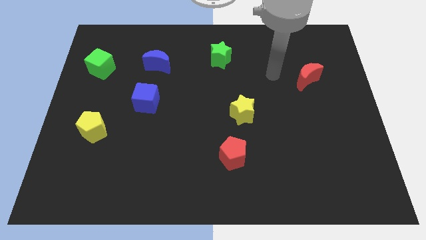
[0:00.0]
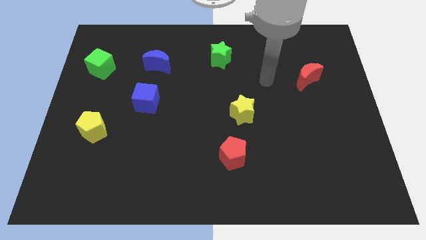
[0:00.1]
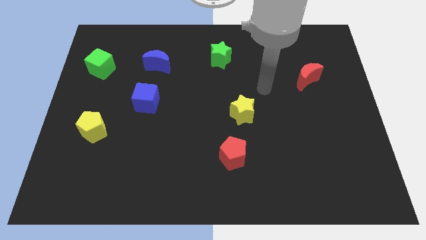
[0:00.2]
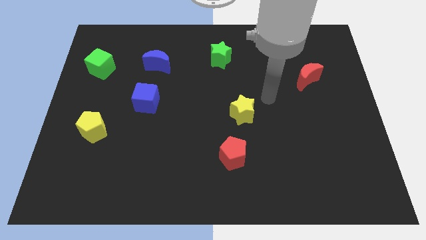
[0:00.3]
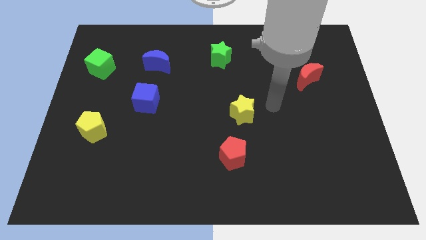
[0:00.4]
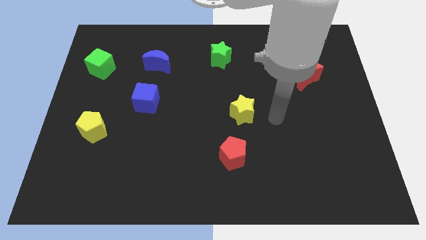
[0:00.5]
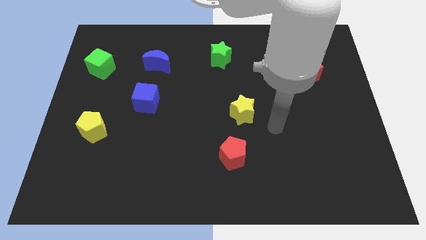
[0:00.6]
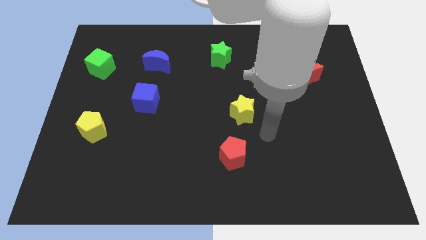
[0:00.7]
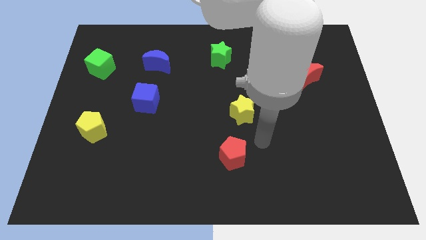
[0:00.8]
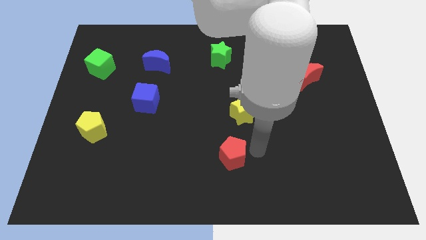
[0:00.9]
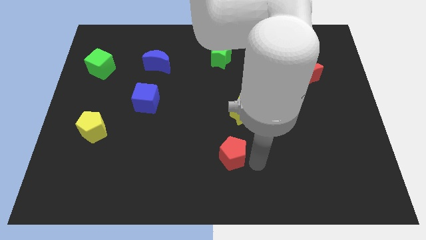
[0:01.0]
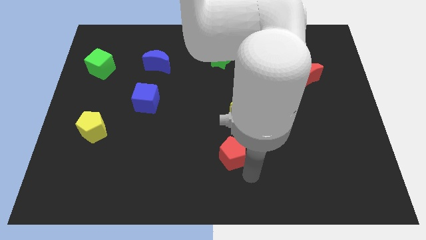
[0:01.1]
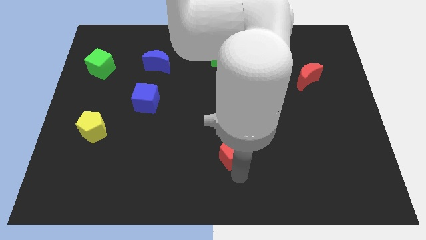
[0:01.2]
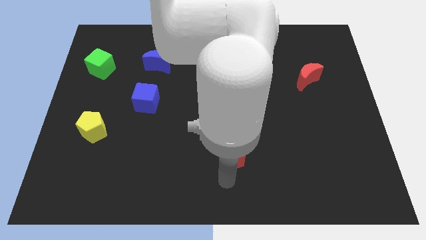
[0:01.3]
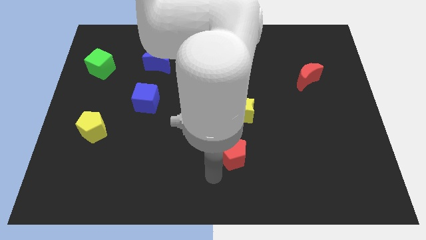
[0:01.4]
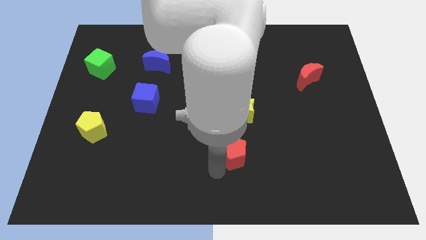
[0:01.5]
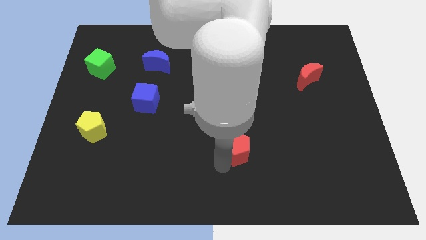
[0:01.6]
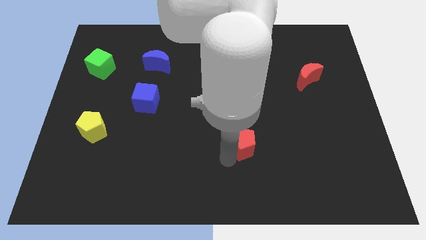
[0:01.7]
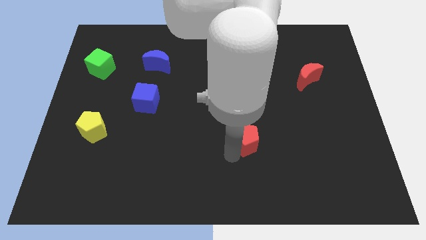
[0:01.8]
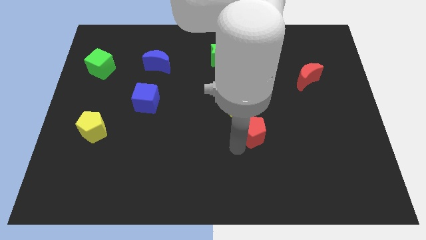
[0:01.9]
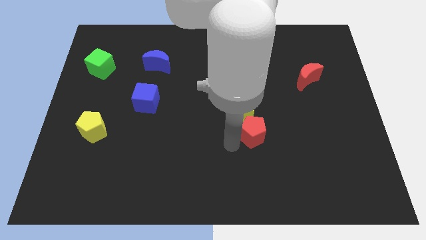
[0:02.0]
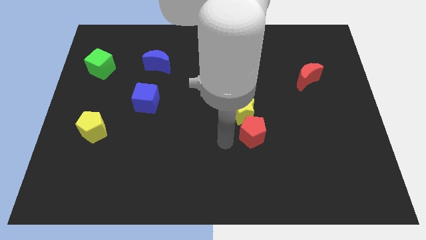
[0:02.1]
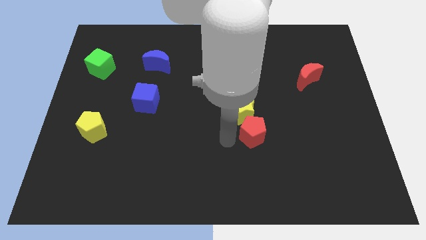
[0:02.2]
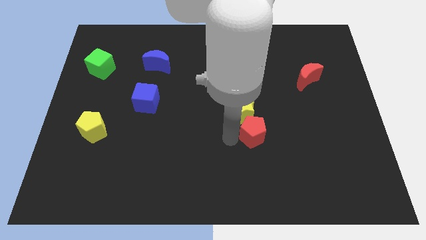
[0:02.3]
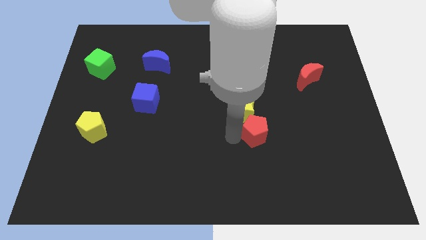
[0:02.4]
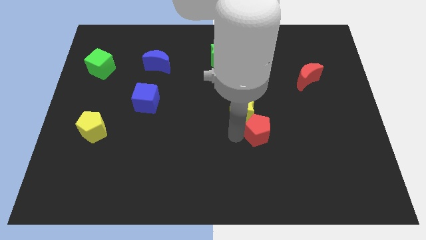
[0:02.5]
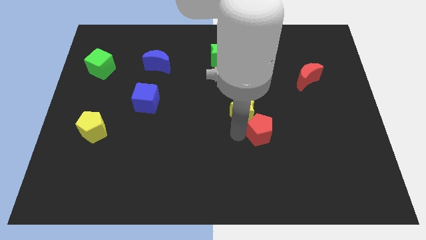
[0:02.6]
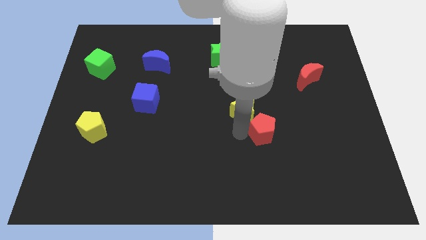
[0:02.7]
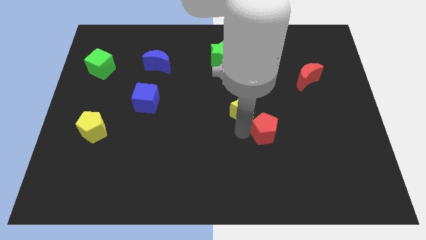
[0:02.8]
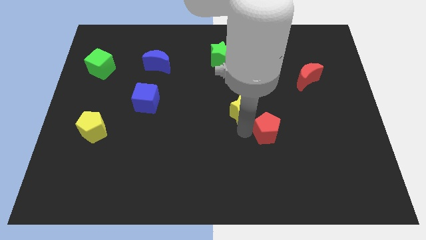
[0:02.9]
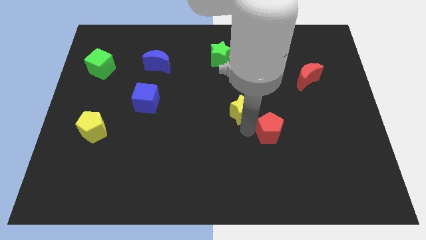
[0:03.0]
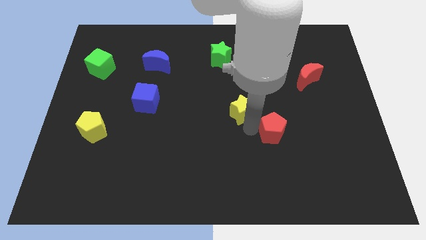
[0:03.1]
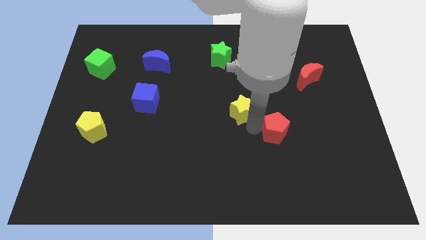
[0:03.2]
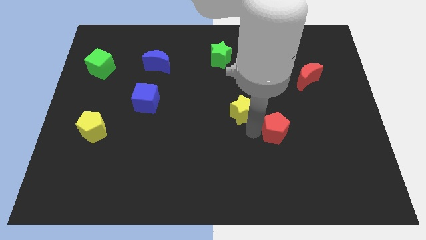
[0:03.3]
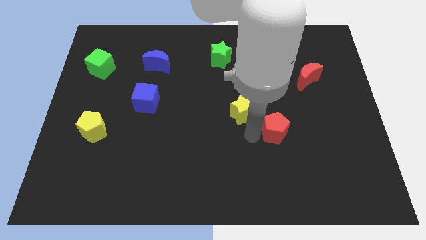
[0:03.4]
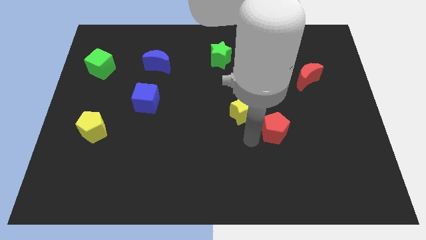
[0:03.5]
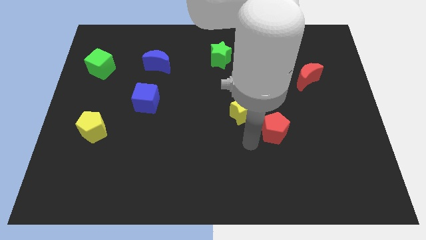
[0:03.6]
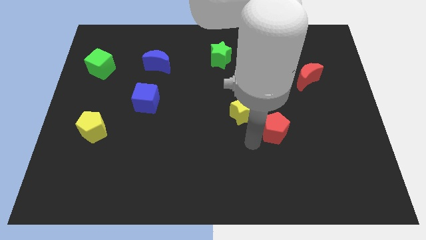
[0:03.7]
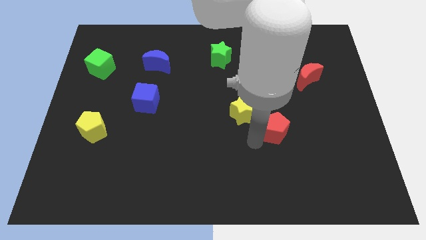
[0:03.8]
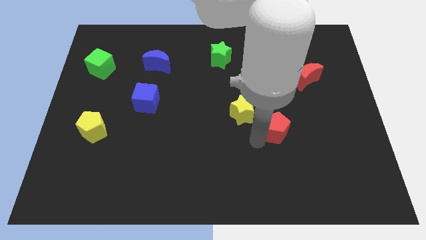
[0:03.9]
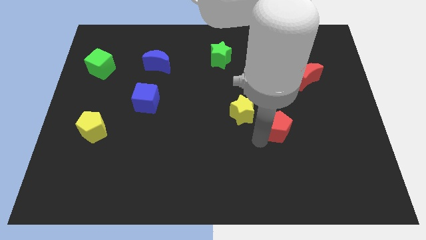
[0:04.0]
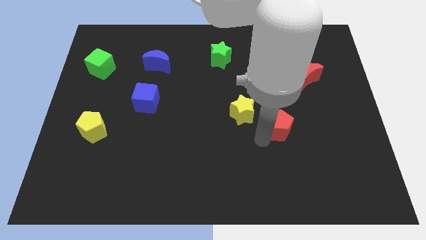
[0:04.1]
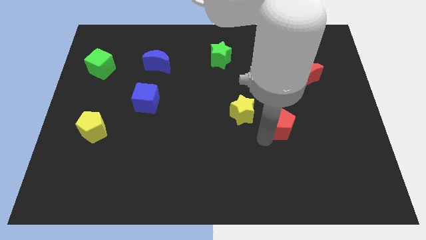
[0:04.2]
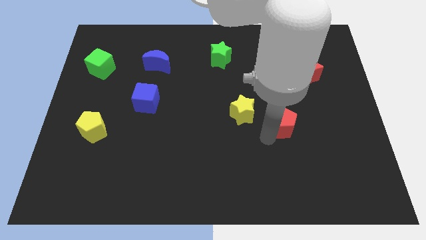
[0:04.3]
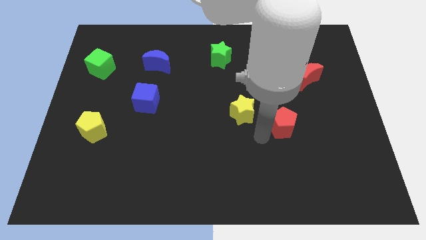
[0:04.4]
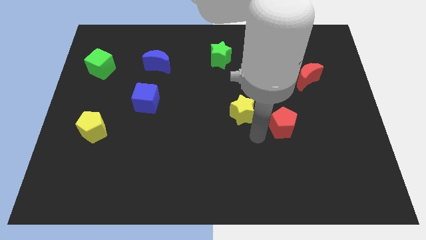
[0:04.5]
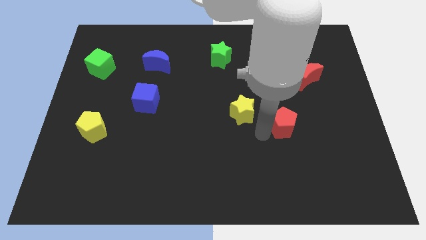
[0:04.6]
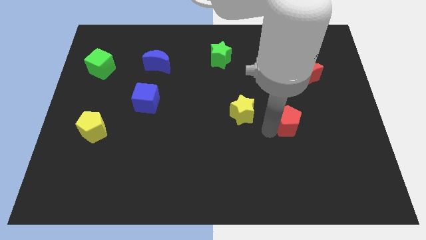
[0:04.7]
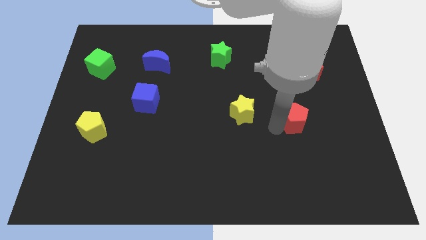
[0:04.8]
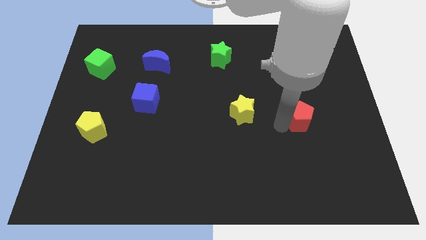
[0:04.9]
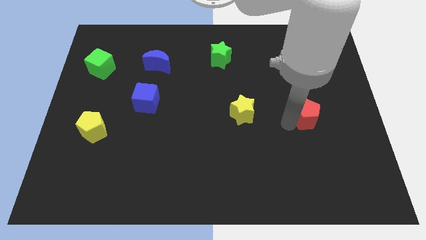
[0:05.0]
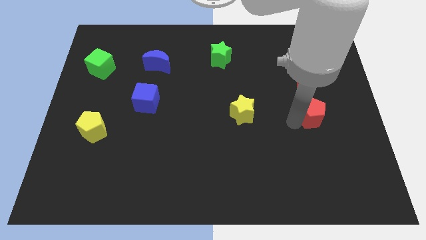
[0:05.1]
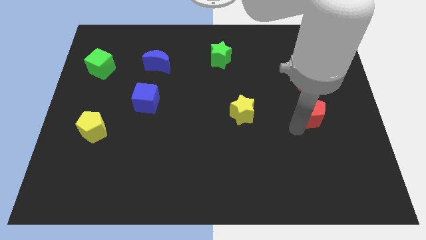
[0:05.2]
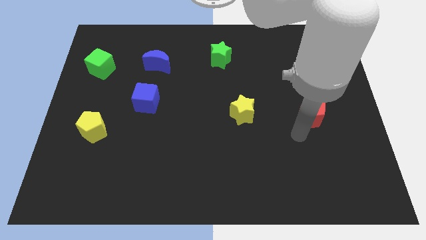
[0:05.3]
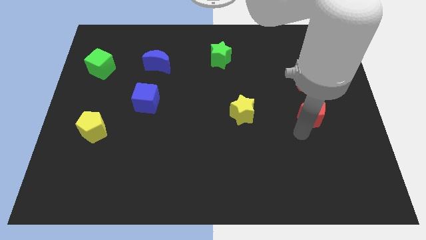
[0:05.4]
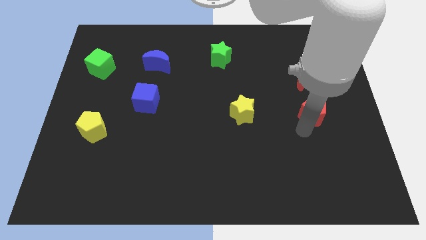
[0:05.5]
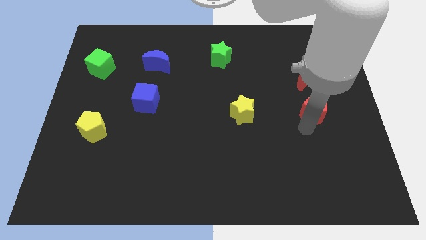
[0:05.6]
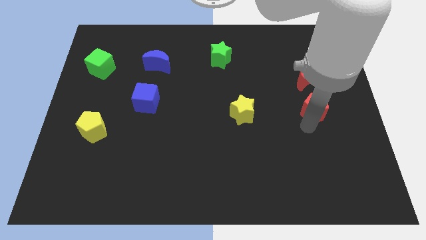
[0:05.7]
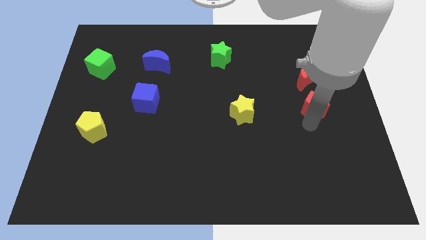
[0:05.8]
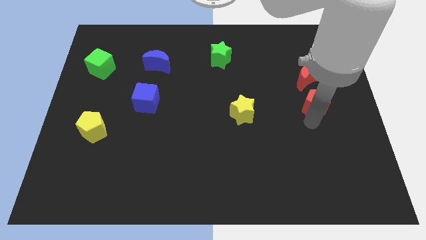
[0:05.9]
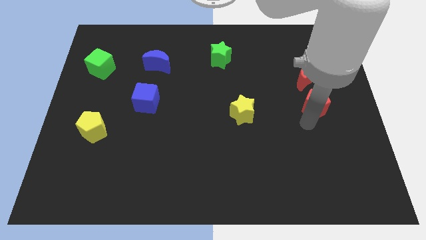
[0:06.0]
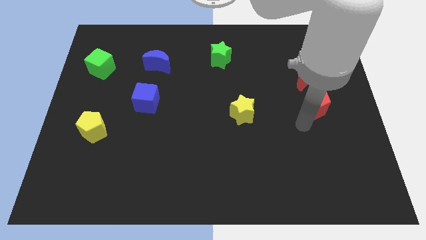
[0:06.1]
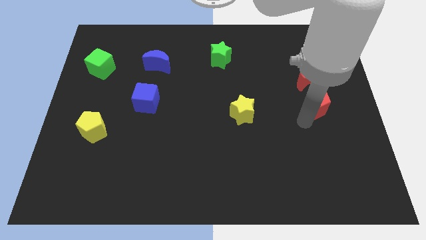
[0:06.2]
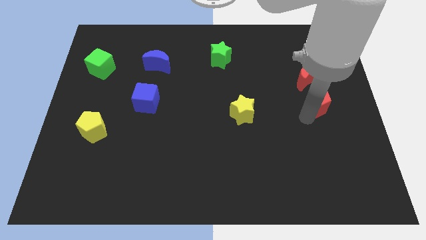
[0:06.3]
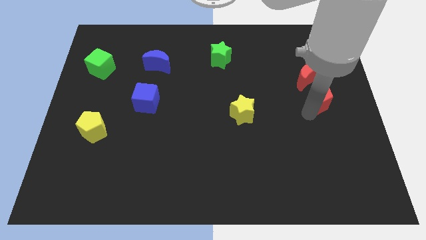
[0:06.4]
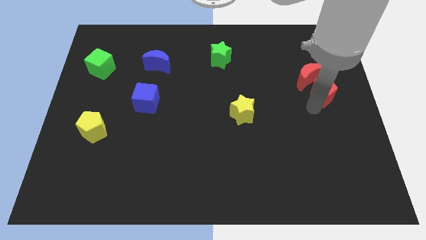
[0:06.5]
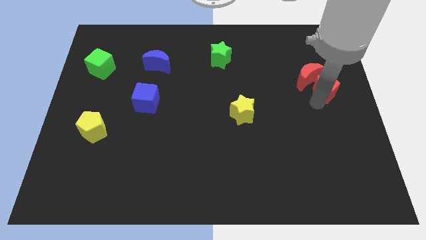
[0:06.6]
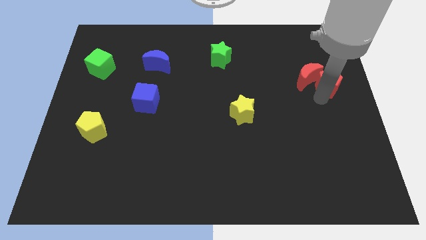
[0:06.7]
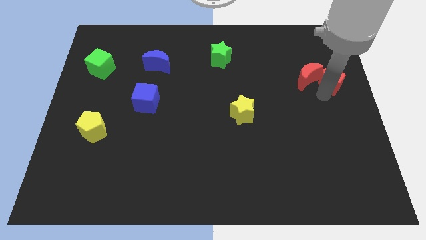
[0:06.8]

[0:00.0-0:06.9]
slide the red pentagon to the top right side of the red moon

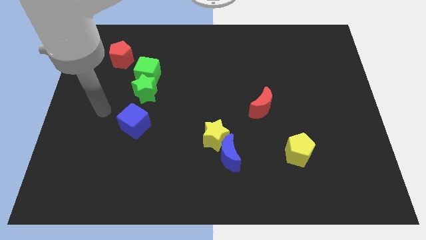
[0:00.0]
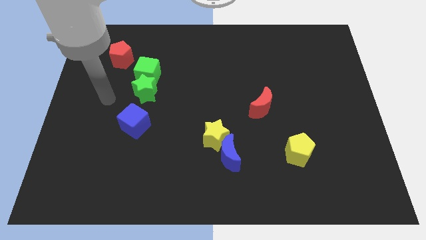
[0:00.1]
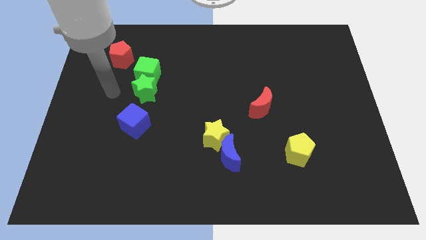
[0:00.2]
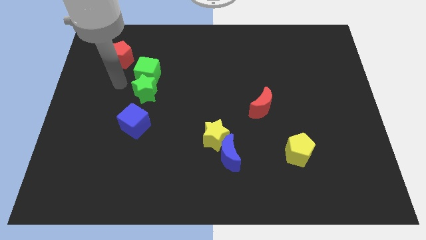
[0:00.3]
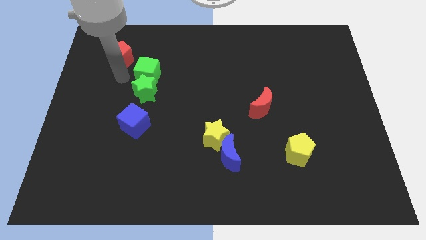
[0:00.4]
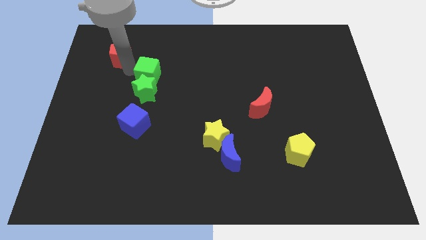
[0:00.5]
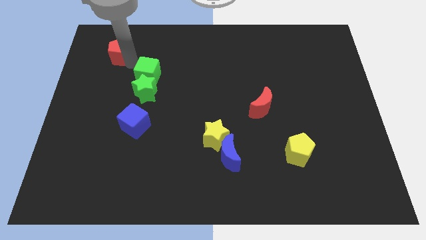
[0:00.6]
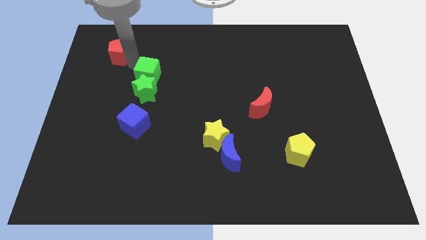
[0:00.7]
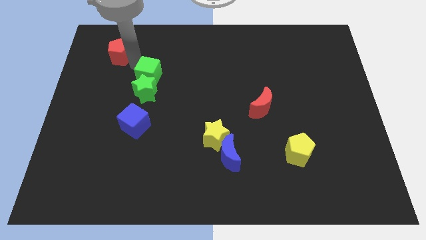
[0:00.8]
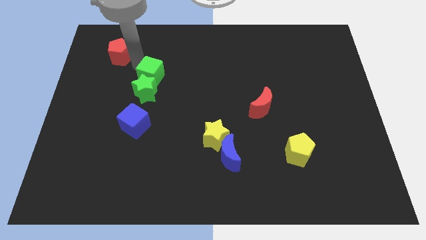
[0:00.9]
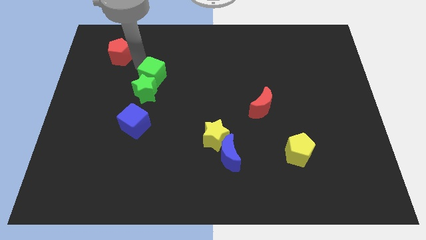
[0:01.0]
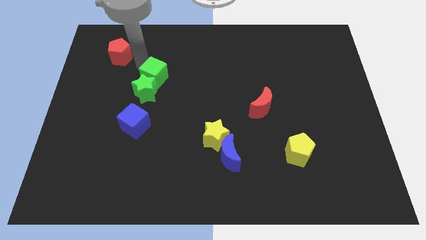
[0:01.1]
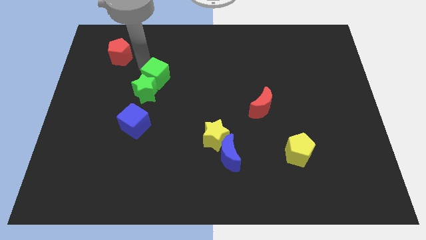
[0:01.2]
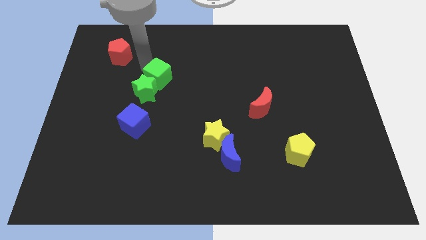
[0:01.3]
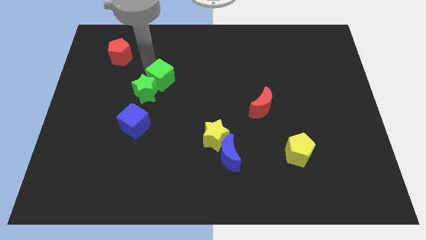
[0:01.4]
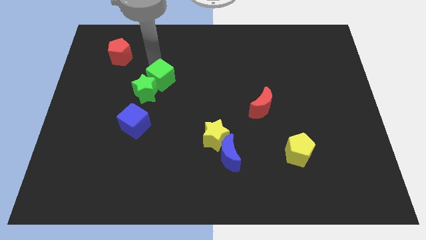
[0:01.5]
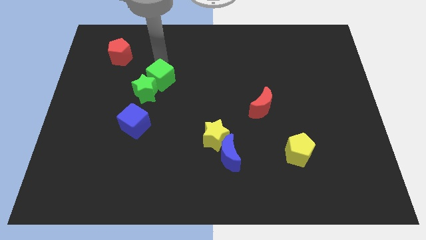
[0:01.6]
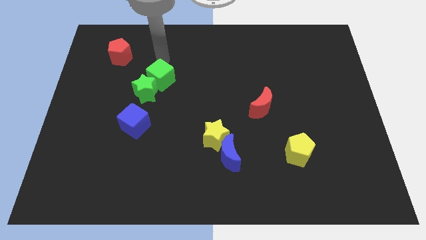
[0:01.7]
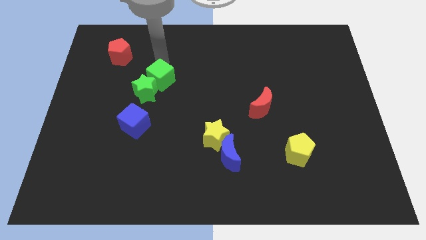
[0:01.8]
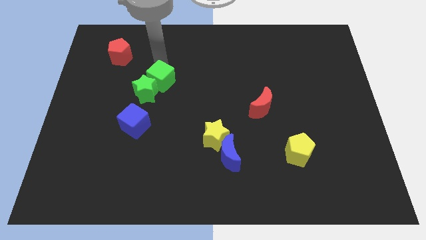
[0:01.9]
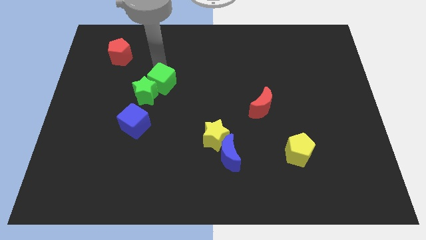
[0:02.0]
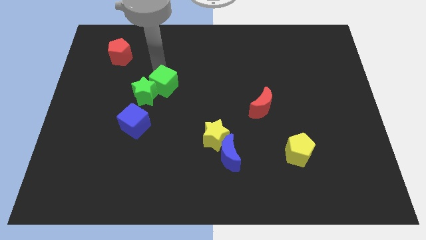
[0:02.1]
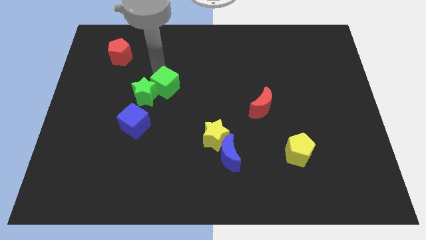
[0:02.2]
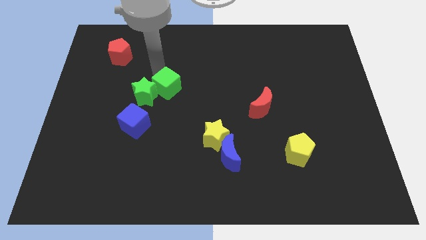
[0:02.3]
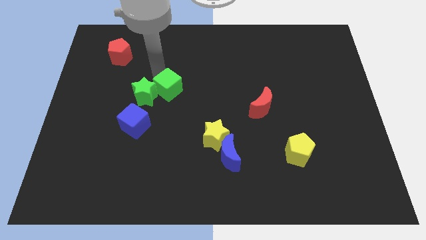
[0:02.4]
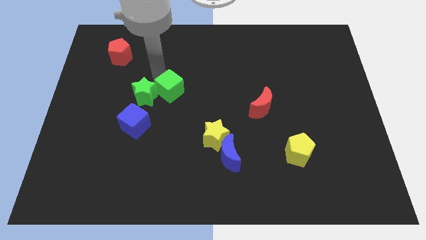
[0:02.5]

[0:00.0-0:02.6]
push the green cube to the top right side of the blue cube
